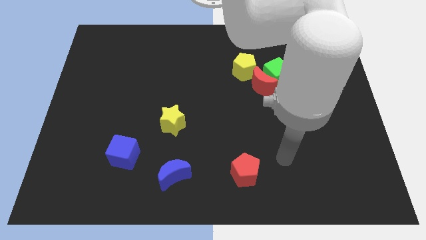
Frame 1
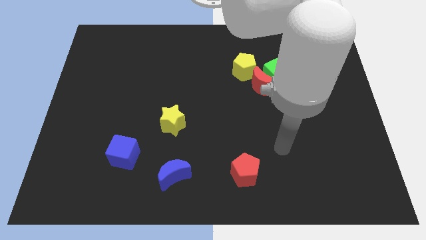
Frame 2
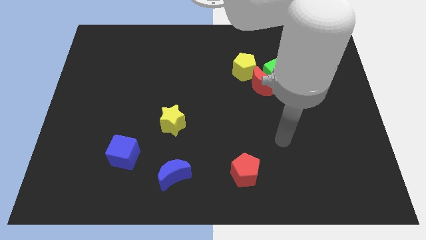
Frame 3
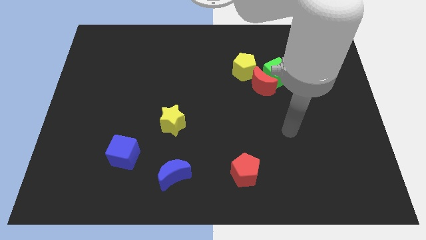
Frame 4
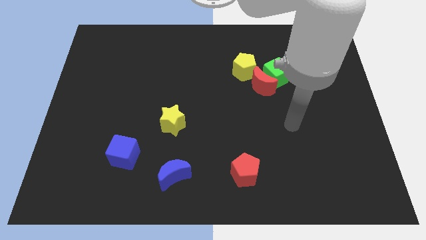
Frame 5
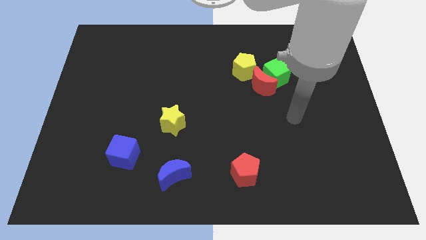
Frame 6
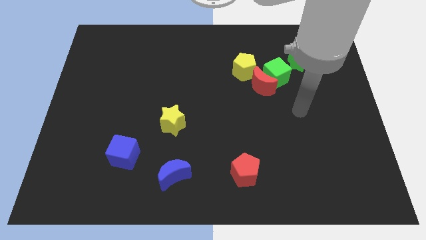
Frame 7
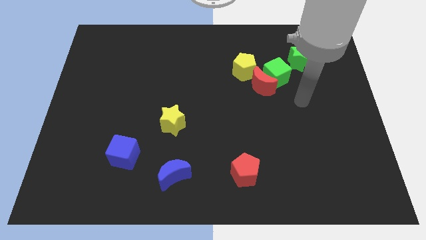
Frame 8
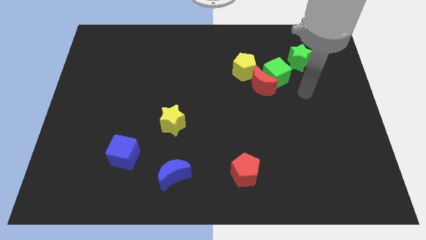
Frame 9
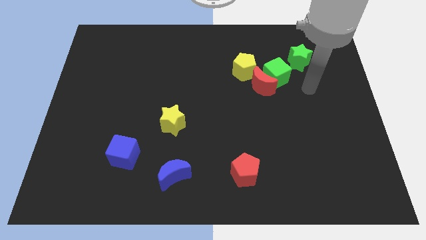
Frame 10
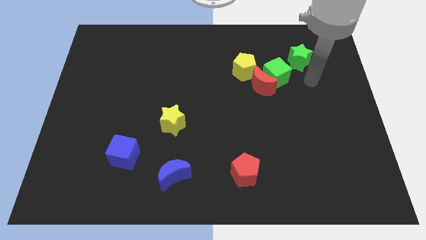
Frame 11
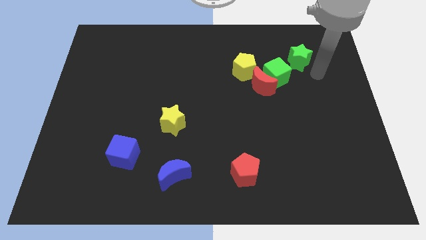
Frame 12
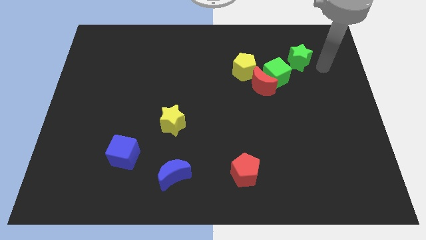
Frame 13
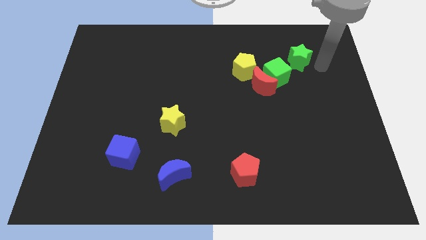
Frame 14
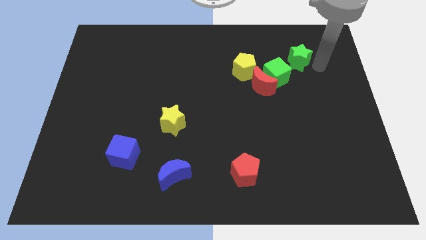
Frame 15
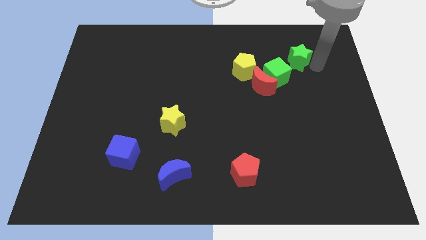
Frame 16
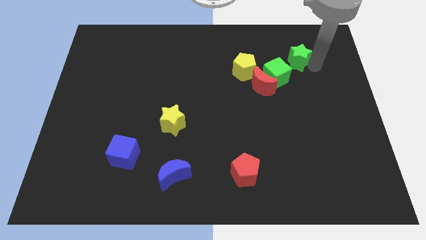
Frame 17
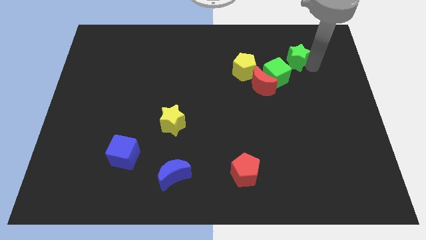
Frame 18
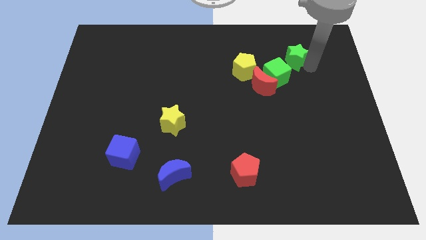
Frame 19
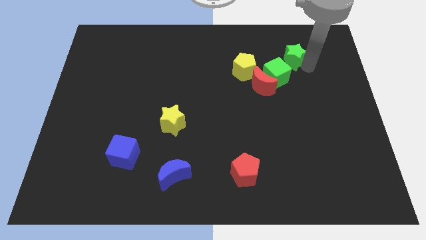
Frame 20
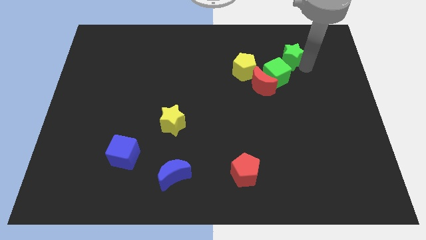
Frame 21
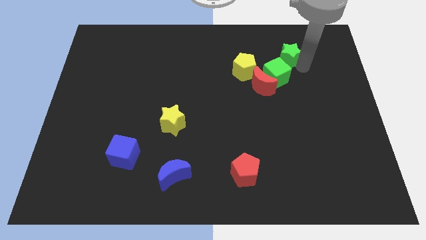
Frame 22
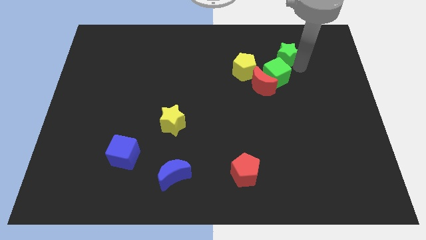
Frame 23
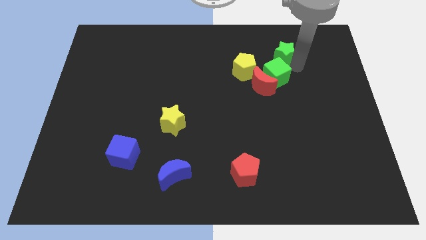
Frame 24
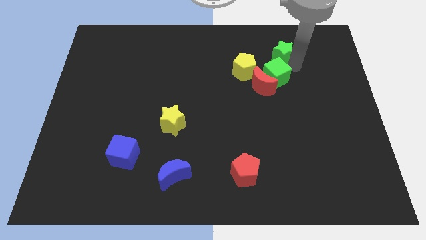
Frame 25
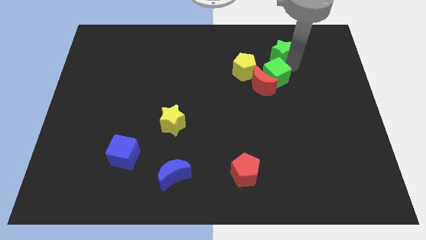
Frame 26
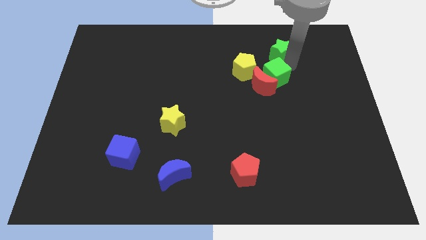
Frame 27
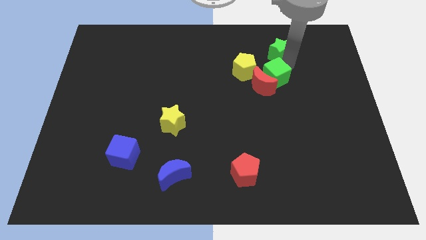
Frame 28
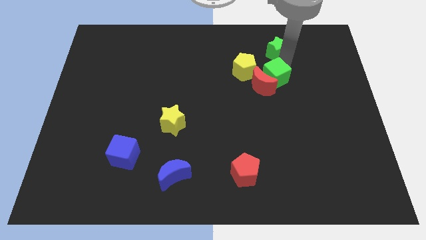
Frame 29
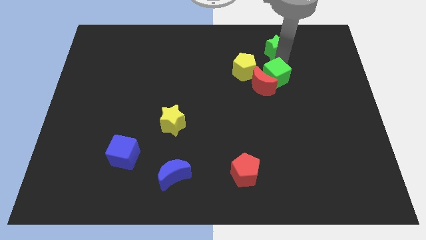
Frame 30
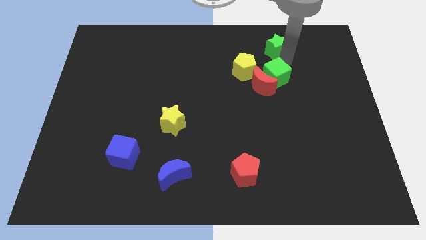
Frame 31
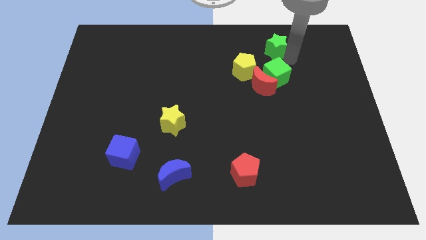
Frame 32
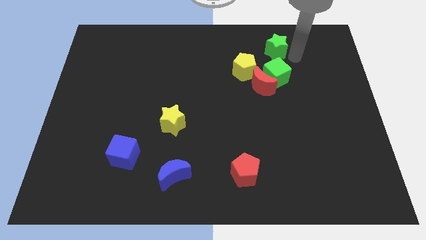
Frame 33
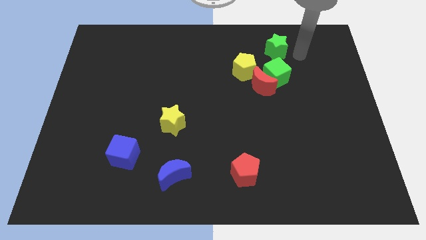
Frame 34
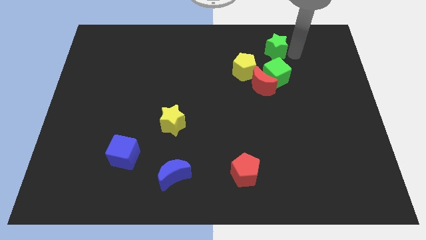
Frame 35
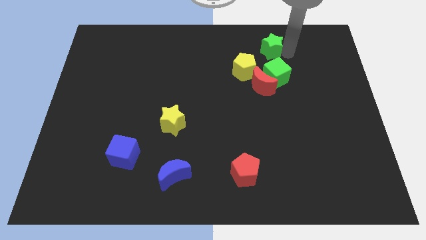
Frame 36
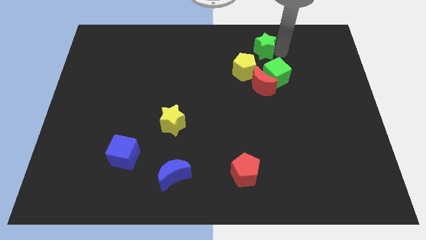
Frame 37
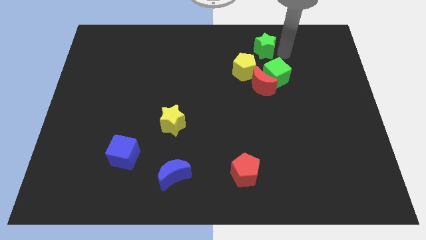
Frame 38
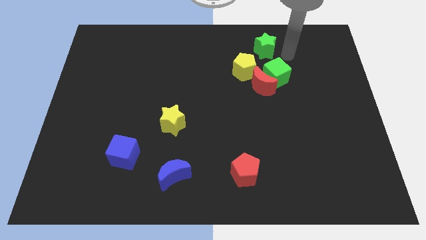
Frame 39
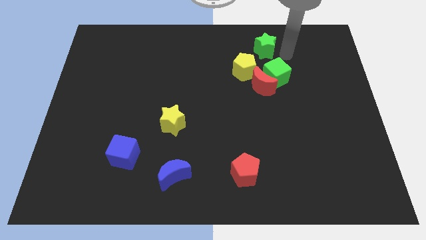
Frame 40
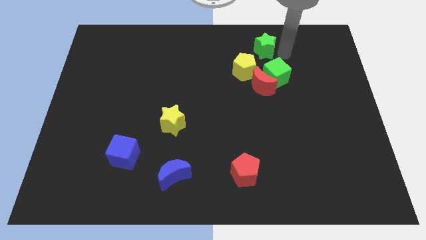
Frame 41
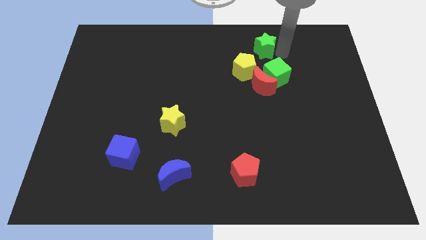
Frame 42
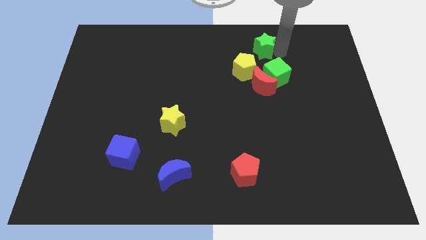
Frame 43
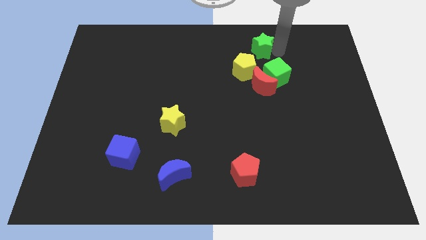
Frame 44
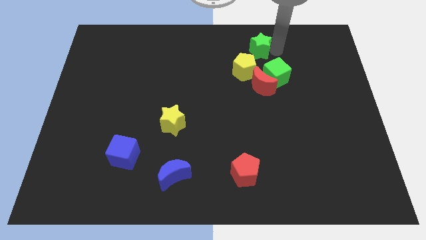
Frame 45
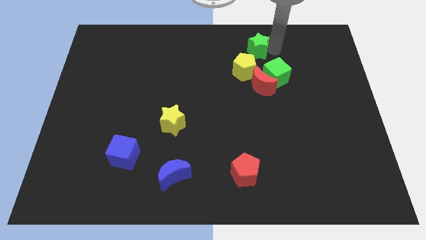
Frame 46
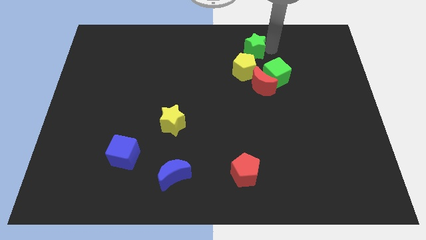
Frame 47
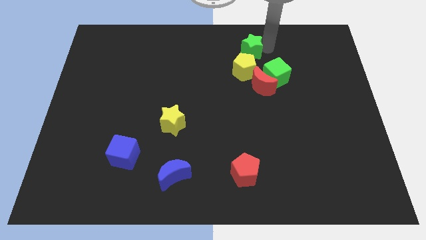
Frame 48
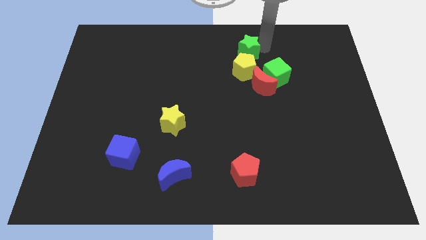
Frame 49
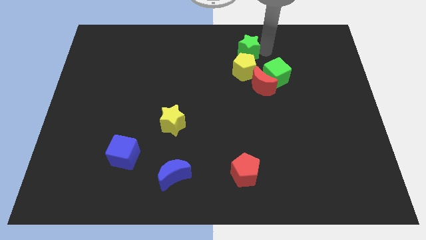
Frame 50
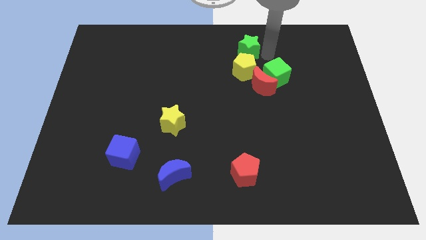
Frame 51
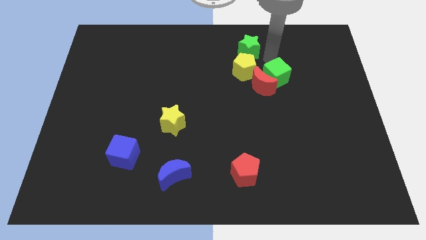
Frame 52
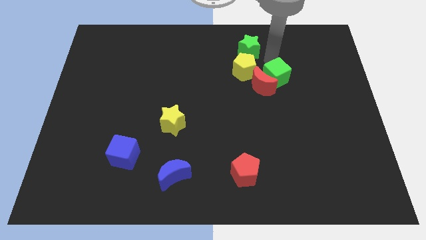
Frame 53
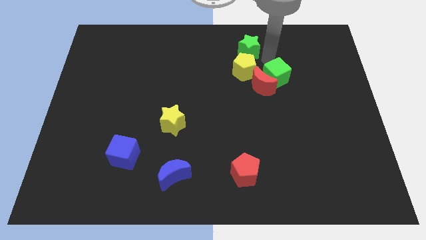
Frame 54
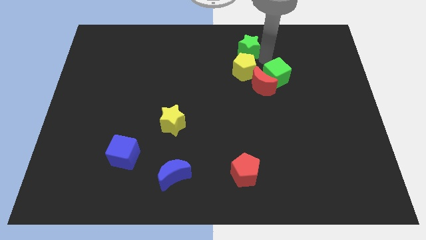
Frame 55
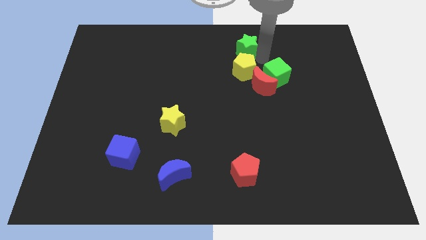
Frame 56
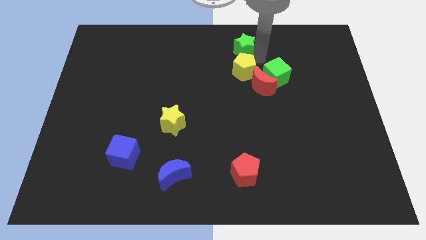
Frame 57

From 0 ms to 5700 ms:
move the green star to the top
